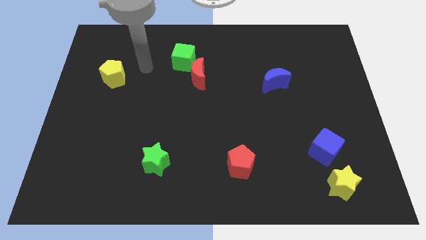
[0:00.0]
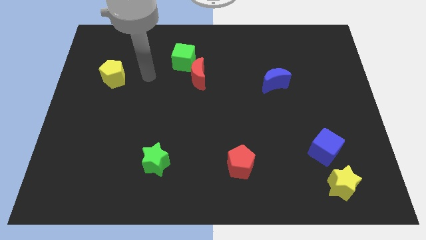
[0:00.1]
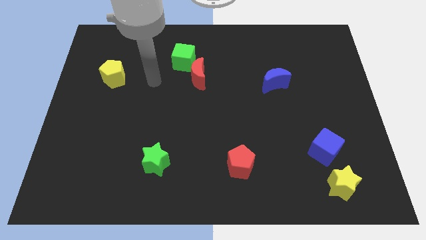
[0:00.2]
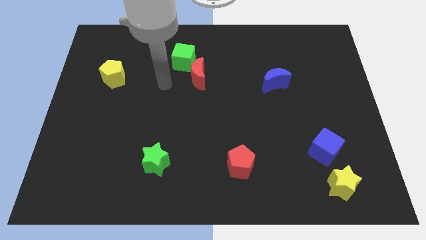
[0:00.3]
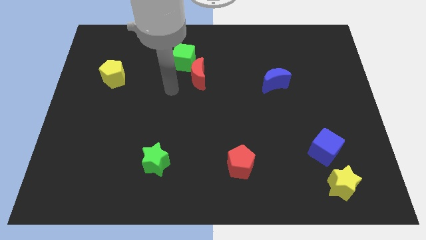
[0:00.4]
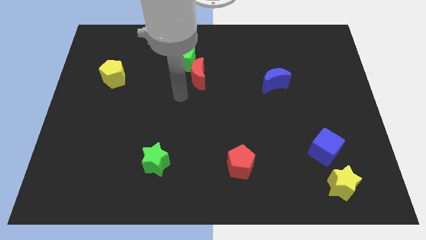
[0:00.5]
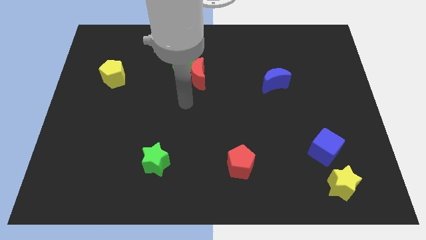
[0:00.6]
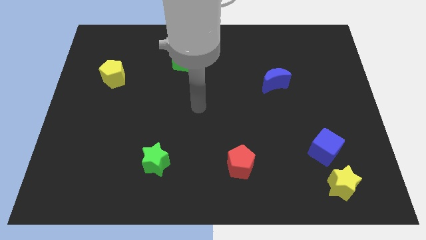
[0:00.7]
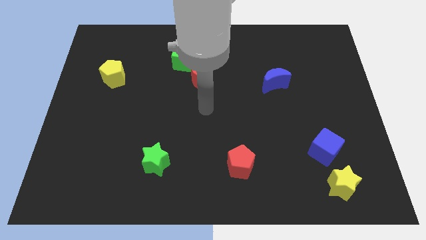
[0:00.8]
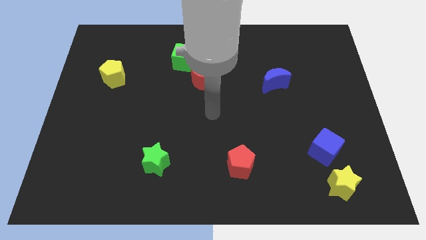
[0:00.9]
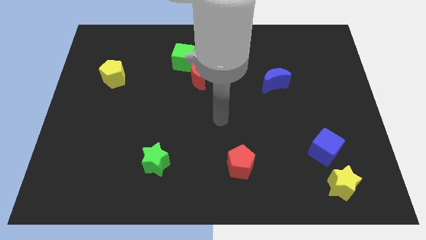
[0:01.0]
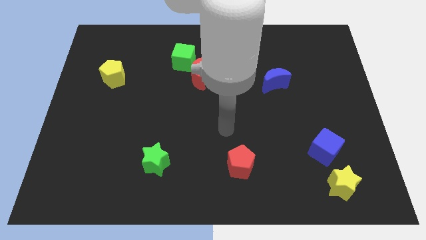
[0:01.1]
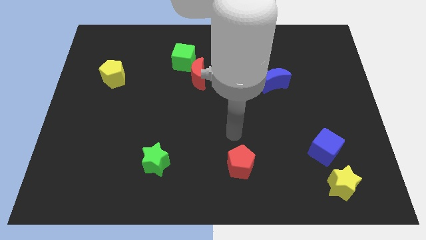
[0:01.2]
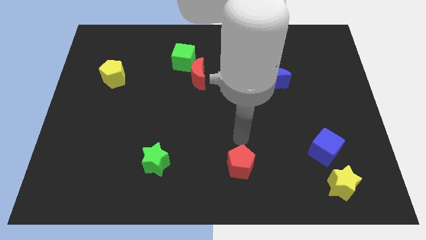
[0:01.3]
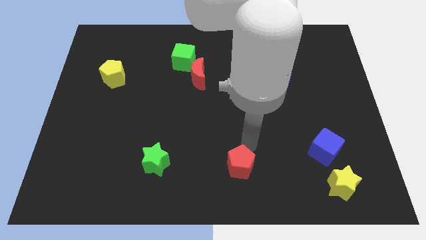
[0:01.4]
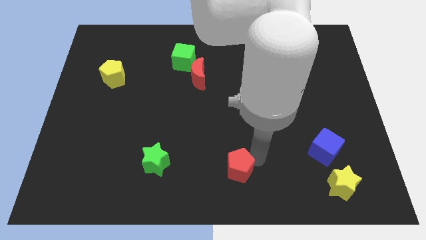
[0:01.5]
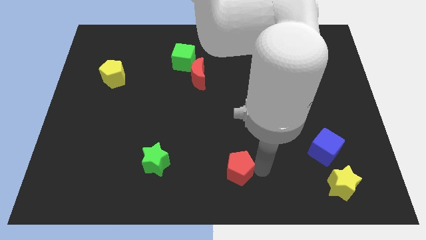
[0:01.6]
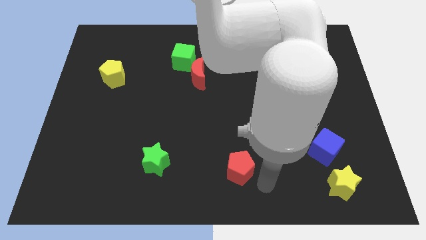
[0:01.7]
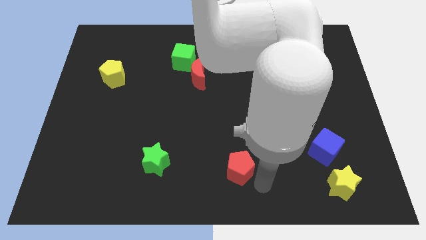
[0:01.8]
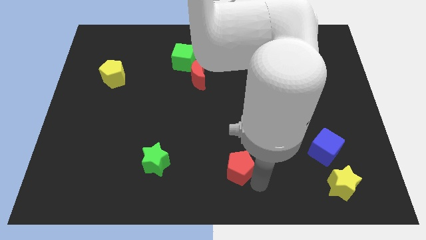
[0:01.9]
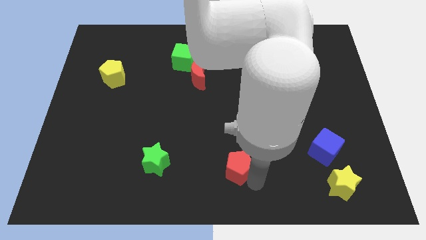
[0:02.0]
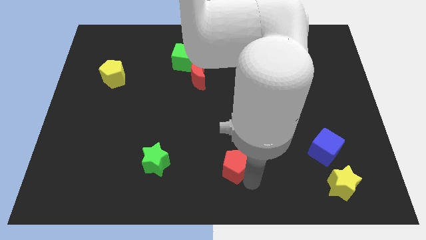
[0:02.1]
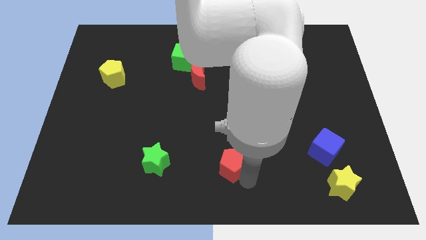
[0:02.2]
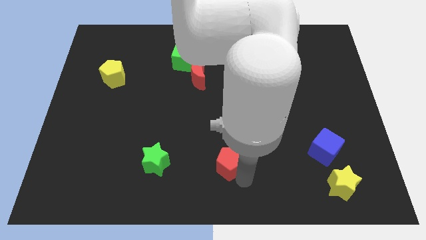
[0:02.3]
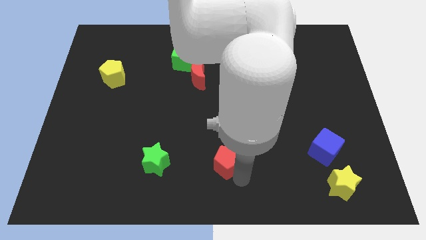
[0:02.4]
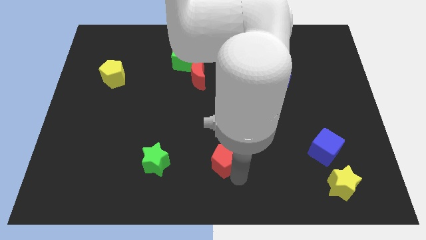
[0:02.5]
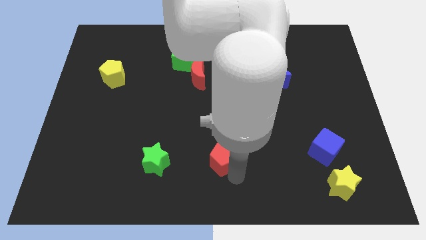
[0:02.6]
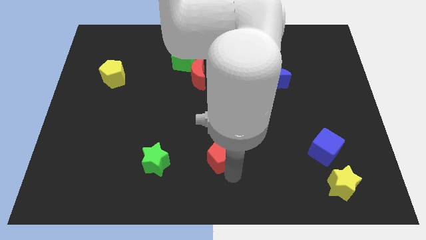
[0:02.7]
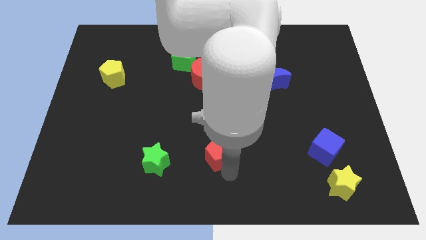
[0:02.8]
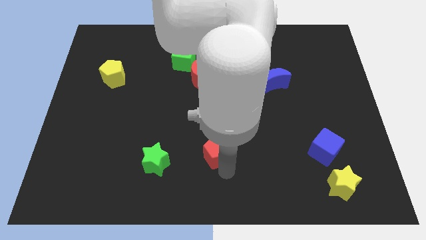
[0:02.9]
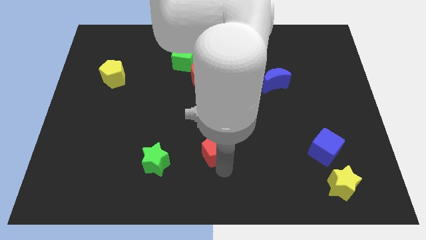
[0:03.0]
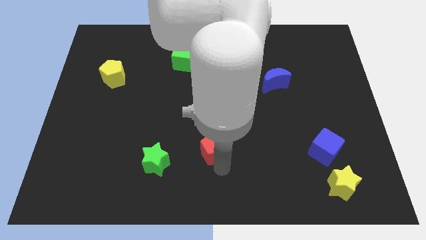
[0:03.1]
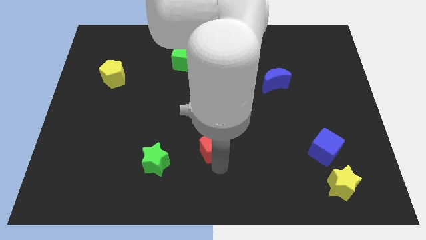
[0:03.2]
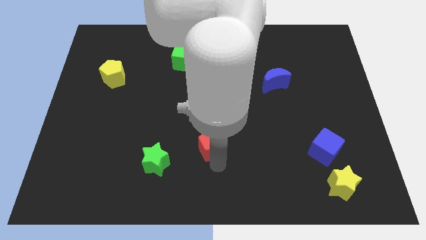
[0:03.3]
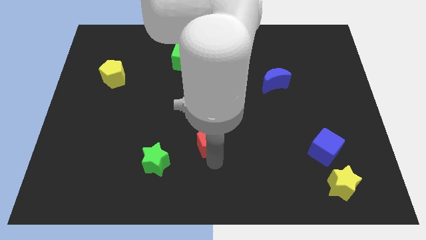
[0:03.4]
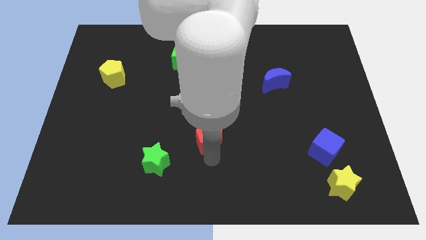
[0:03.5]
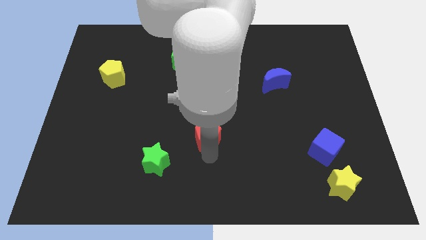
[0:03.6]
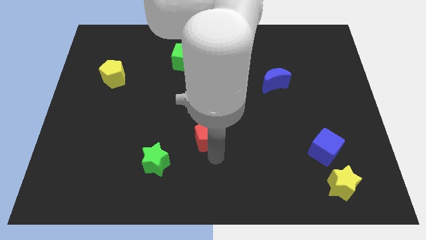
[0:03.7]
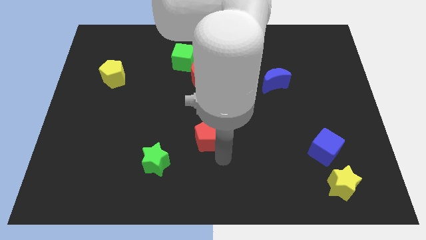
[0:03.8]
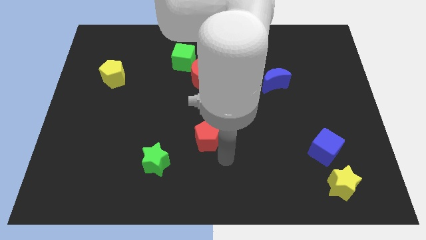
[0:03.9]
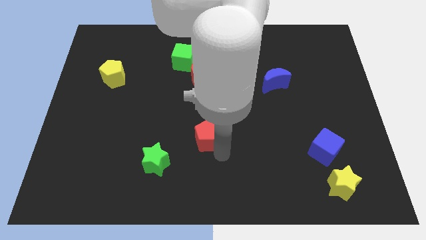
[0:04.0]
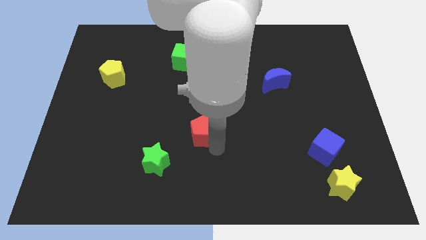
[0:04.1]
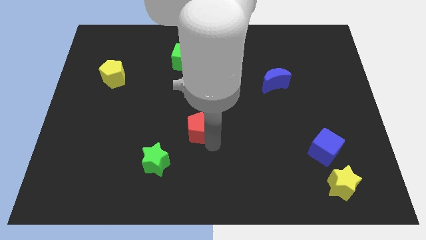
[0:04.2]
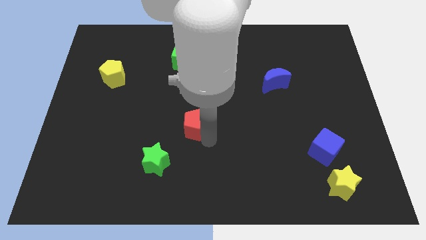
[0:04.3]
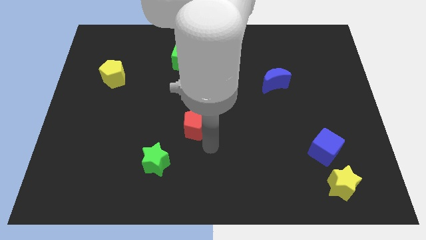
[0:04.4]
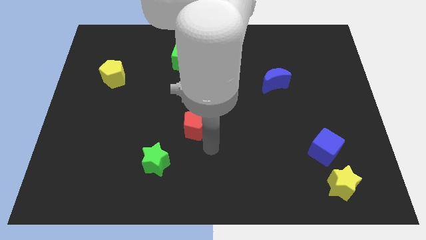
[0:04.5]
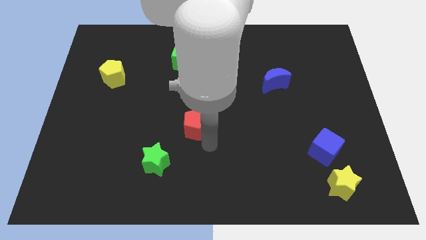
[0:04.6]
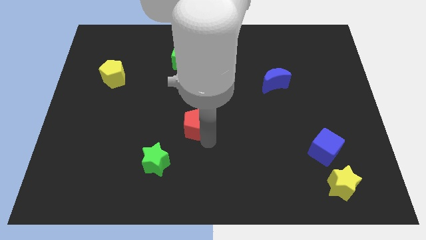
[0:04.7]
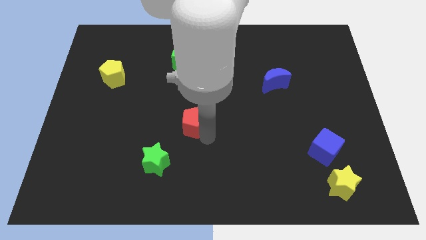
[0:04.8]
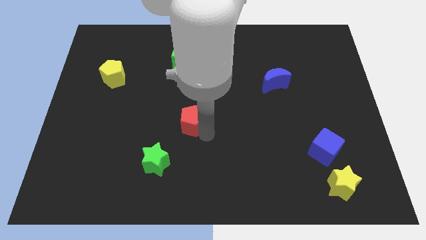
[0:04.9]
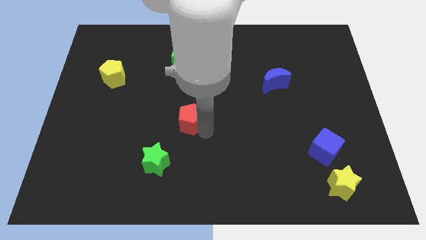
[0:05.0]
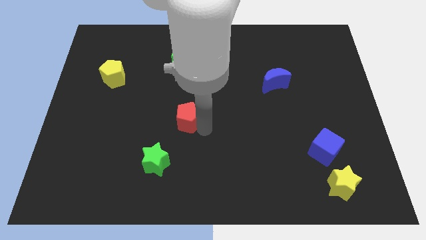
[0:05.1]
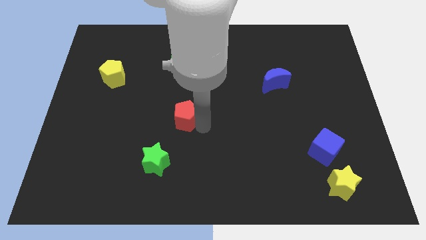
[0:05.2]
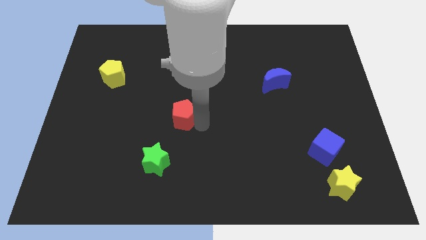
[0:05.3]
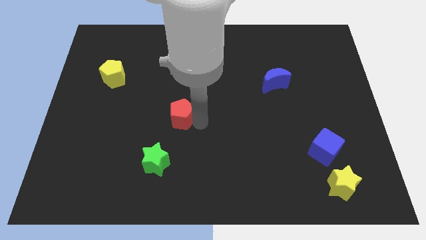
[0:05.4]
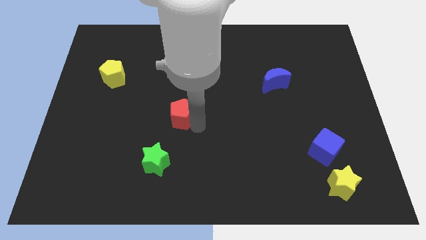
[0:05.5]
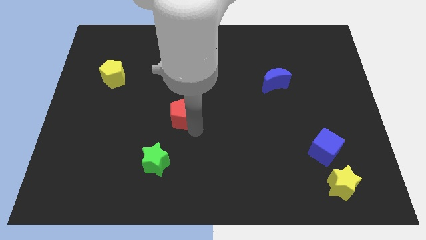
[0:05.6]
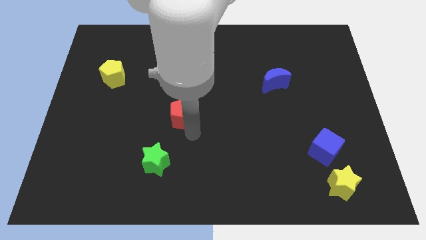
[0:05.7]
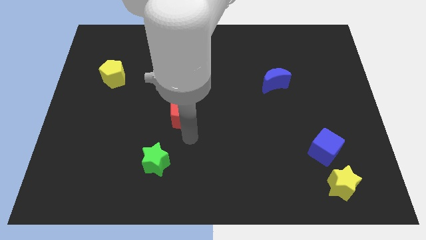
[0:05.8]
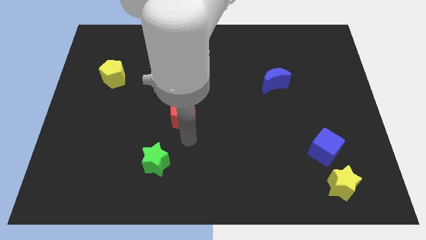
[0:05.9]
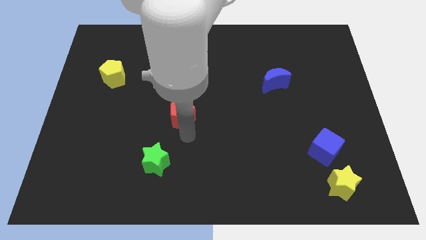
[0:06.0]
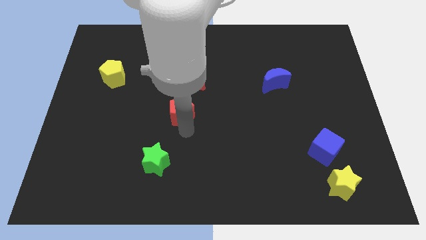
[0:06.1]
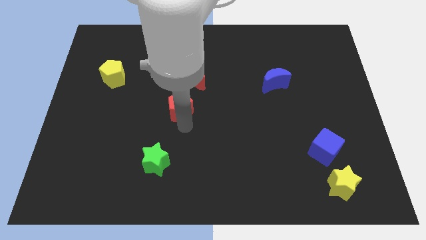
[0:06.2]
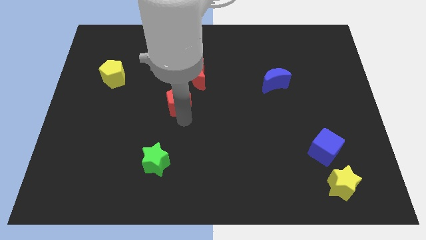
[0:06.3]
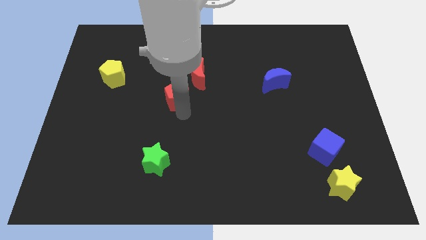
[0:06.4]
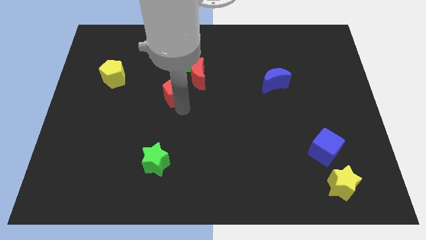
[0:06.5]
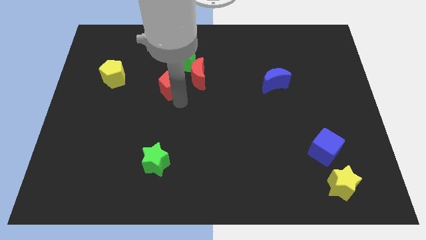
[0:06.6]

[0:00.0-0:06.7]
put the red pentagon just left of the red moon
